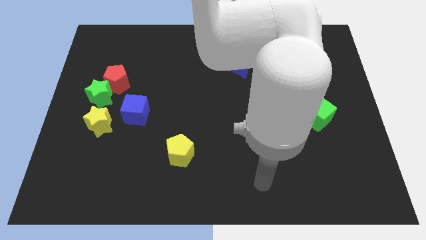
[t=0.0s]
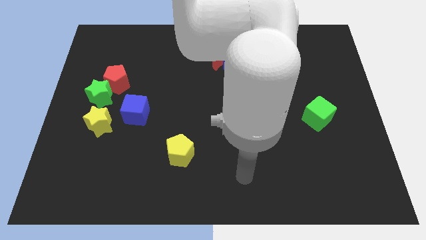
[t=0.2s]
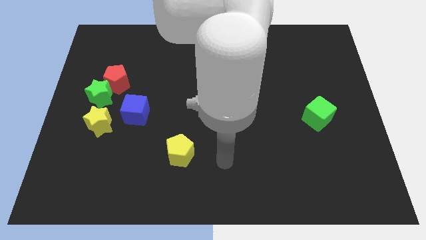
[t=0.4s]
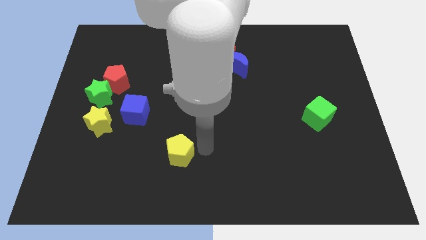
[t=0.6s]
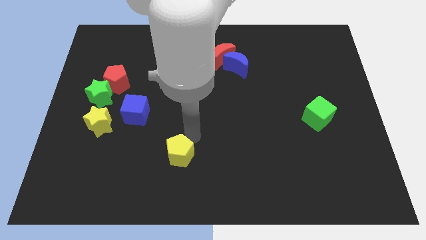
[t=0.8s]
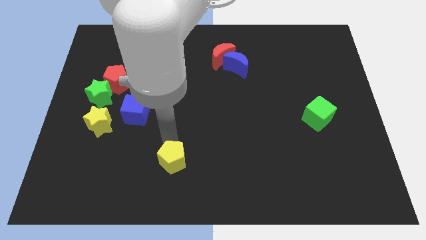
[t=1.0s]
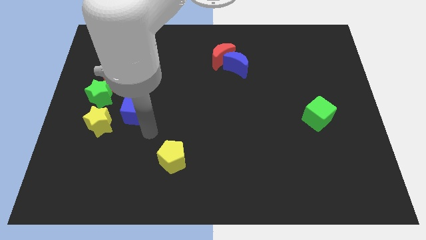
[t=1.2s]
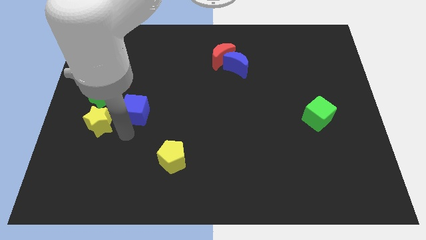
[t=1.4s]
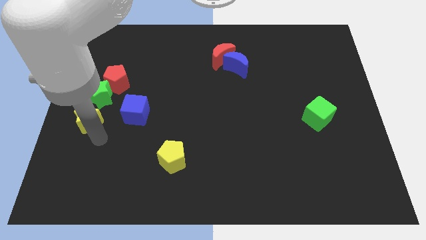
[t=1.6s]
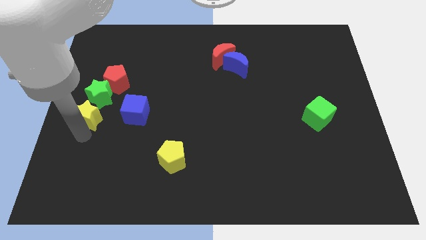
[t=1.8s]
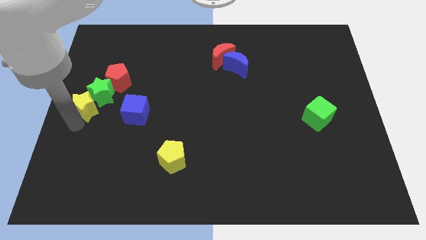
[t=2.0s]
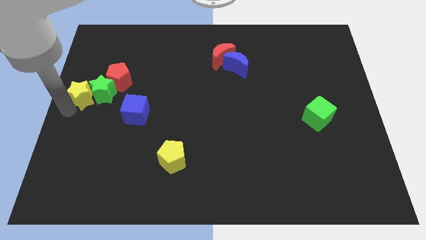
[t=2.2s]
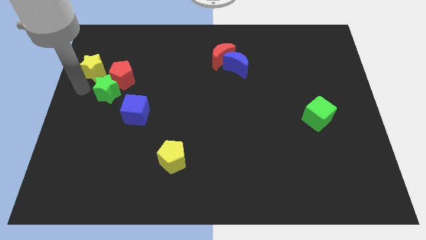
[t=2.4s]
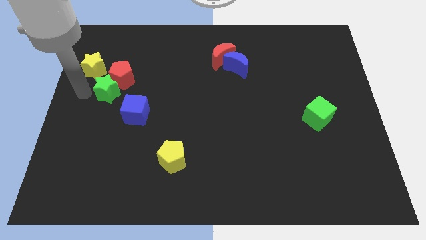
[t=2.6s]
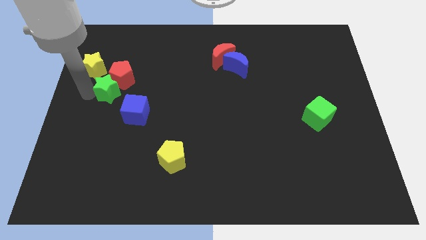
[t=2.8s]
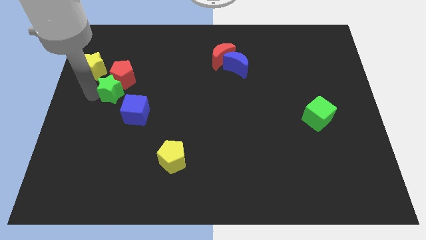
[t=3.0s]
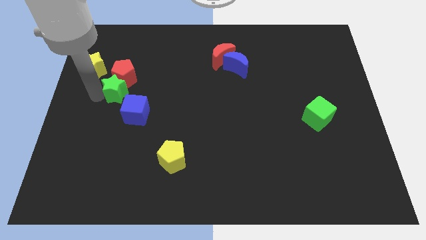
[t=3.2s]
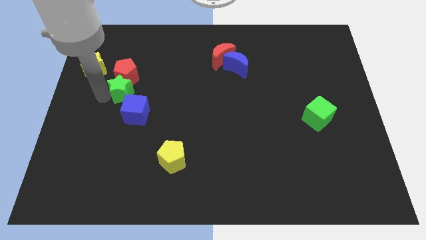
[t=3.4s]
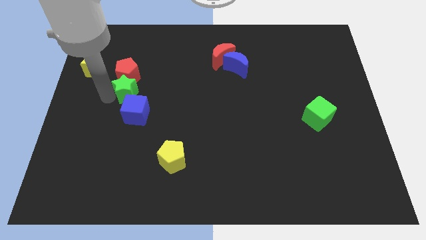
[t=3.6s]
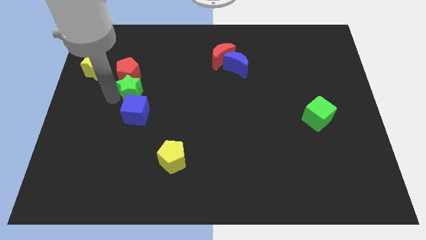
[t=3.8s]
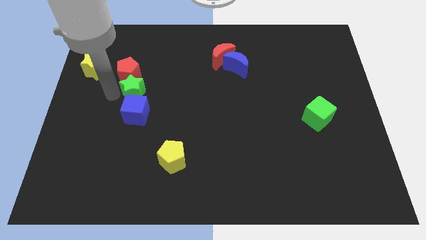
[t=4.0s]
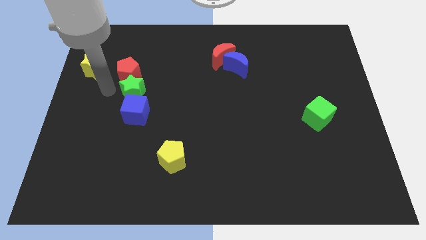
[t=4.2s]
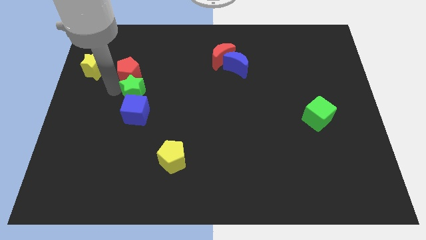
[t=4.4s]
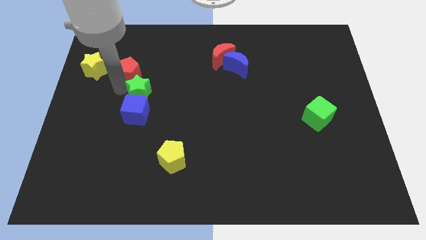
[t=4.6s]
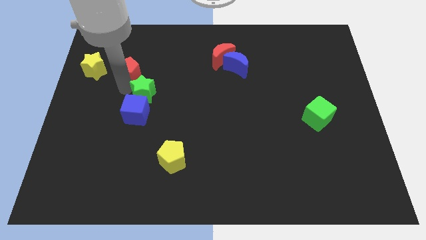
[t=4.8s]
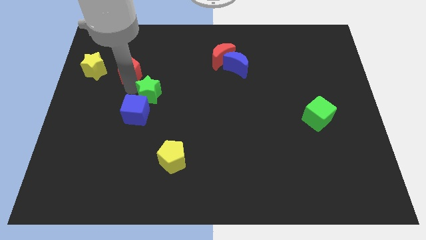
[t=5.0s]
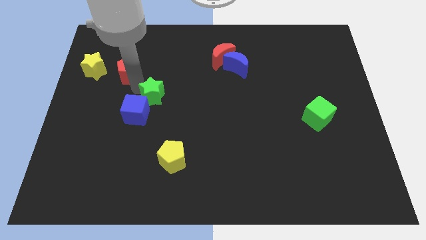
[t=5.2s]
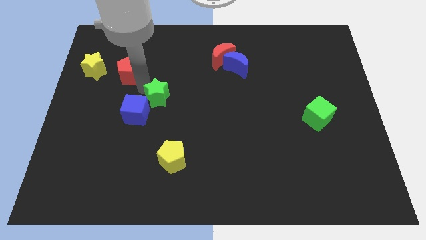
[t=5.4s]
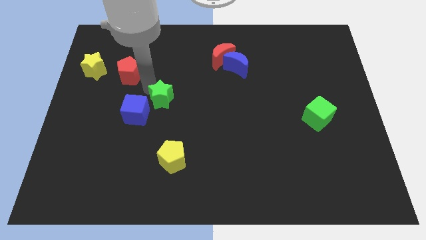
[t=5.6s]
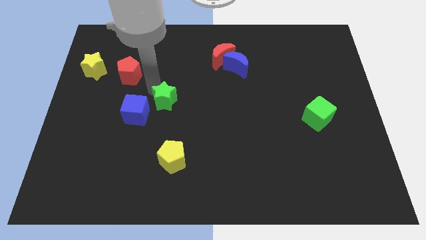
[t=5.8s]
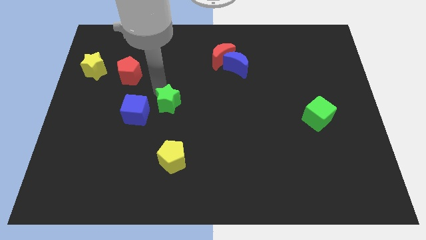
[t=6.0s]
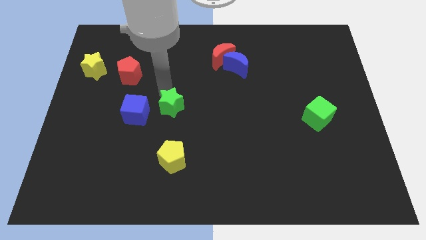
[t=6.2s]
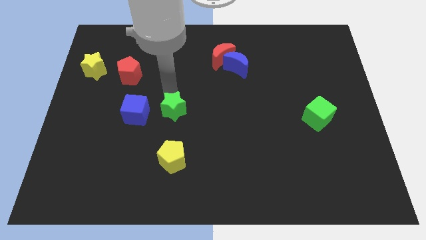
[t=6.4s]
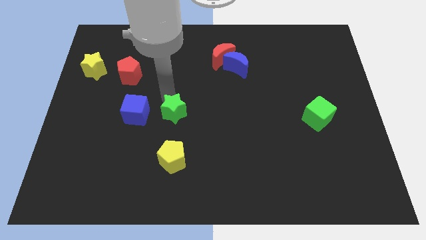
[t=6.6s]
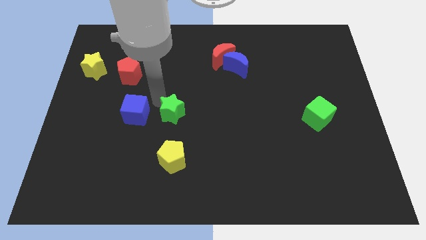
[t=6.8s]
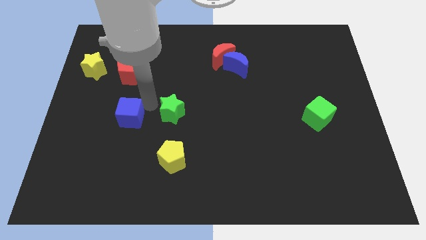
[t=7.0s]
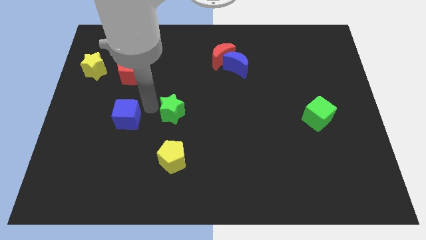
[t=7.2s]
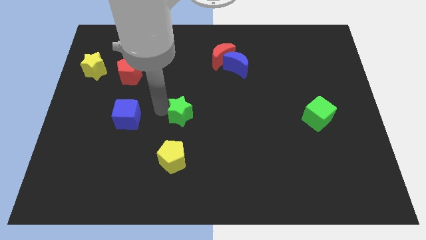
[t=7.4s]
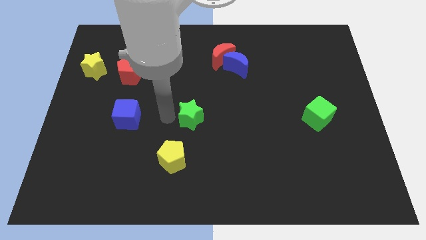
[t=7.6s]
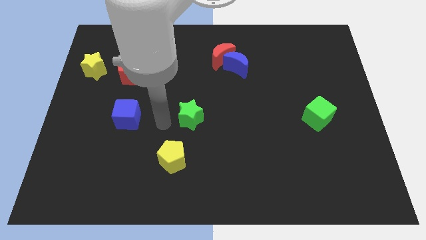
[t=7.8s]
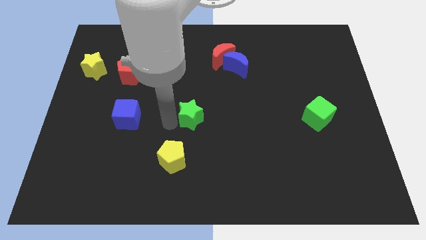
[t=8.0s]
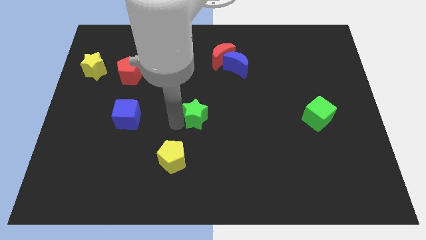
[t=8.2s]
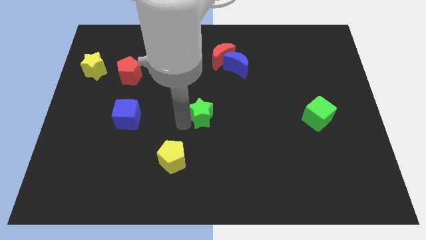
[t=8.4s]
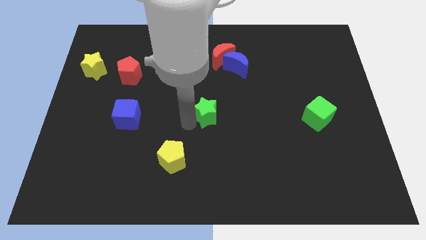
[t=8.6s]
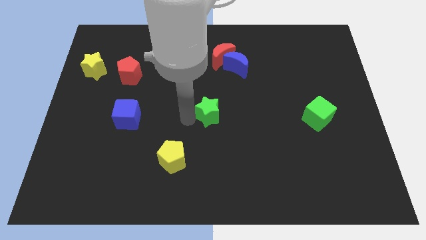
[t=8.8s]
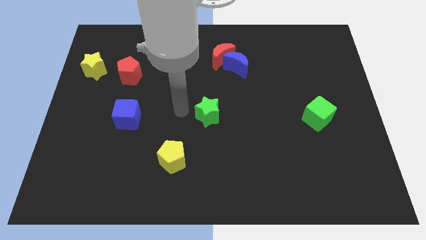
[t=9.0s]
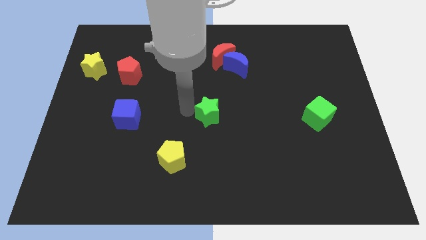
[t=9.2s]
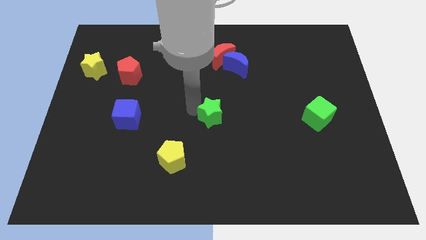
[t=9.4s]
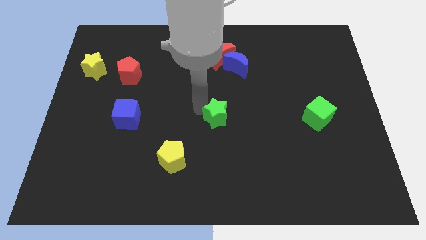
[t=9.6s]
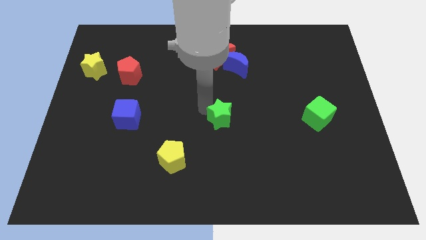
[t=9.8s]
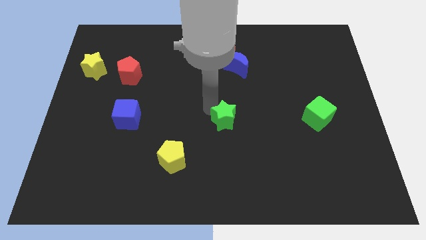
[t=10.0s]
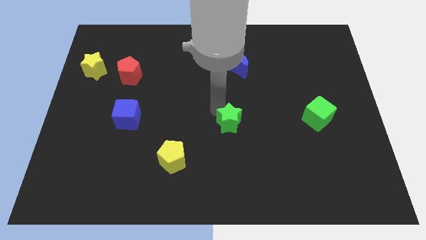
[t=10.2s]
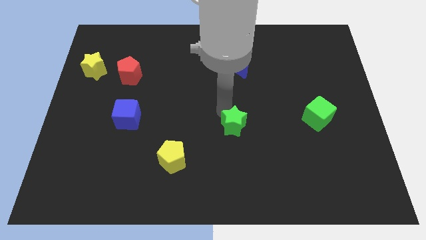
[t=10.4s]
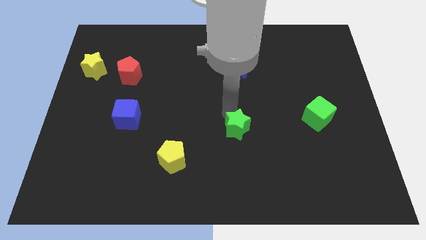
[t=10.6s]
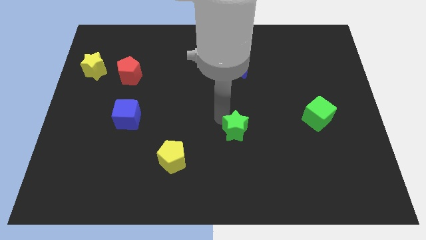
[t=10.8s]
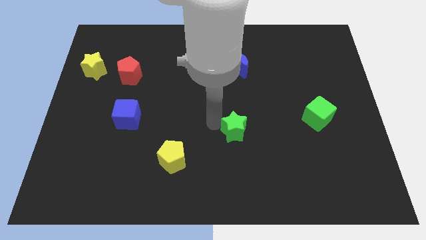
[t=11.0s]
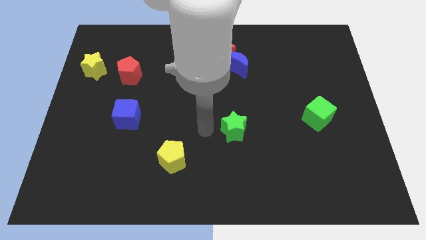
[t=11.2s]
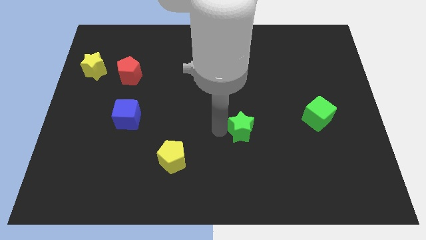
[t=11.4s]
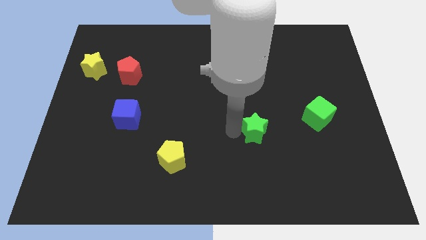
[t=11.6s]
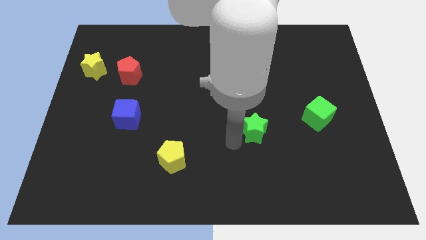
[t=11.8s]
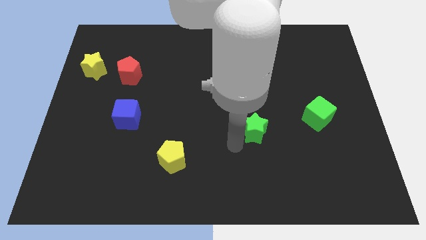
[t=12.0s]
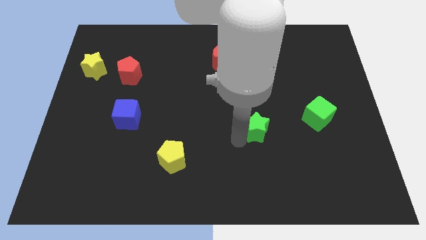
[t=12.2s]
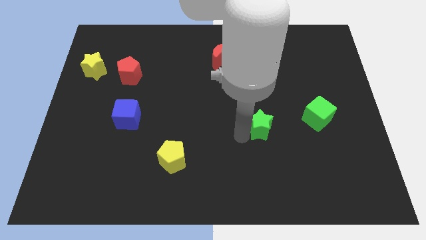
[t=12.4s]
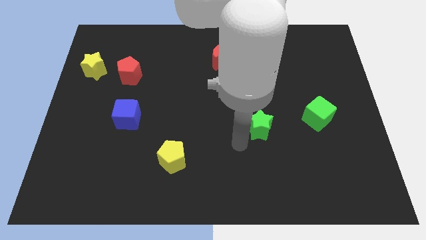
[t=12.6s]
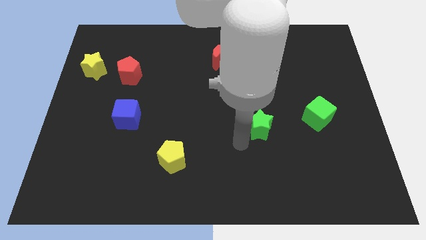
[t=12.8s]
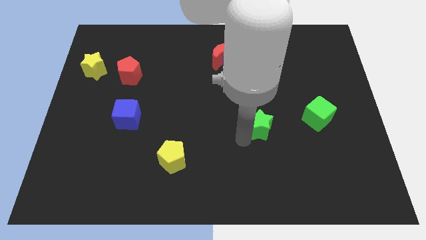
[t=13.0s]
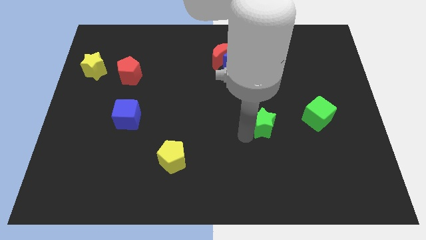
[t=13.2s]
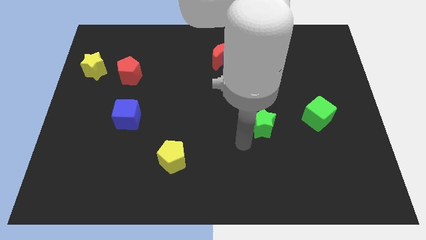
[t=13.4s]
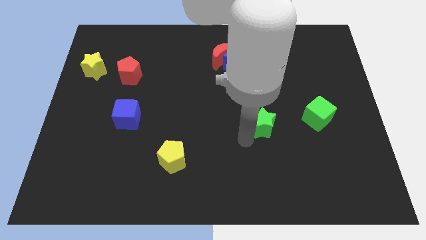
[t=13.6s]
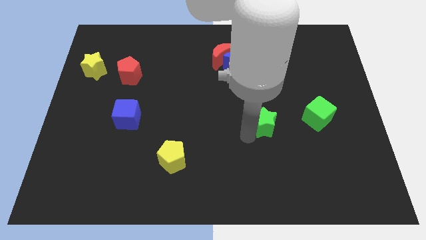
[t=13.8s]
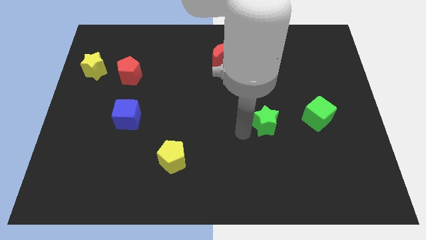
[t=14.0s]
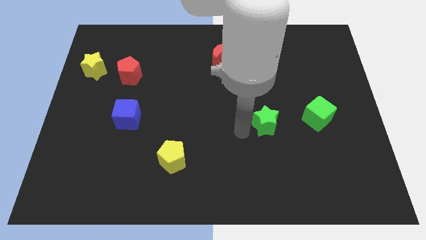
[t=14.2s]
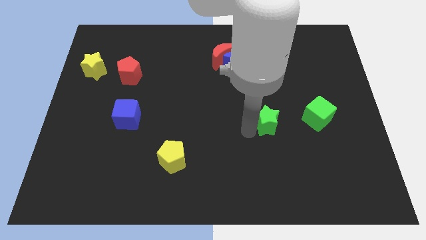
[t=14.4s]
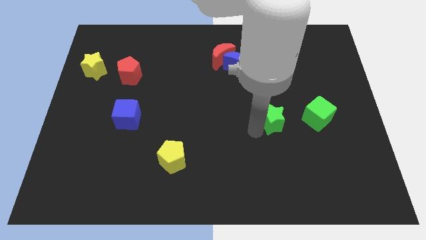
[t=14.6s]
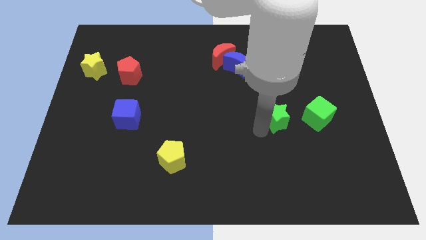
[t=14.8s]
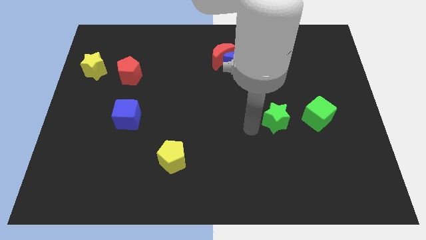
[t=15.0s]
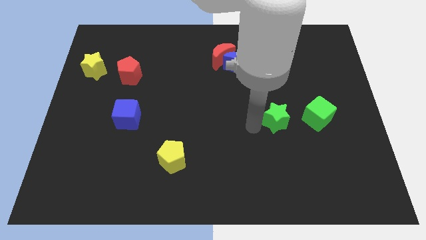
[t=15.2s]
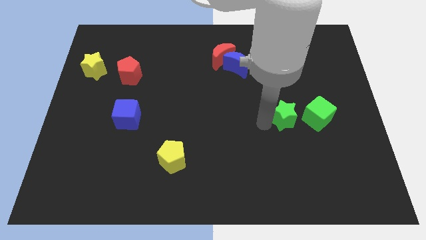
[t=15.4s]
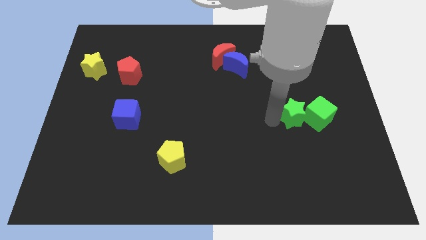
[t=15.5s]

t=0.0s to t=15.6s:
put the green star to the green cube
